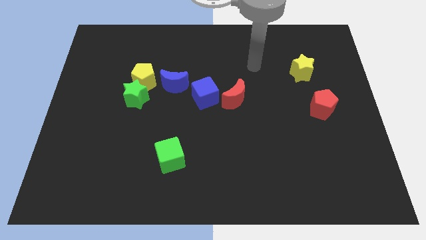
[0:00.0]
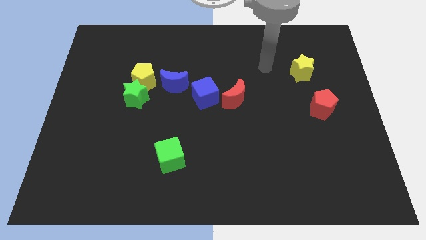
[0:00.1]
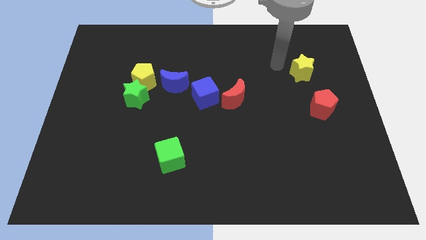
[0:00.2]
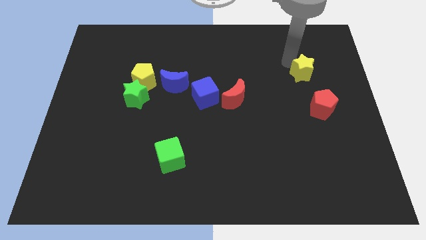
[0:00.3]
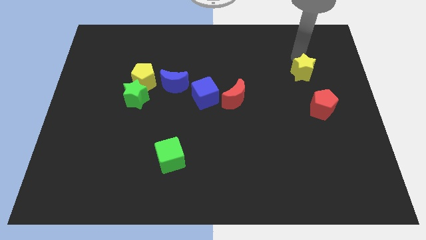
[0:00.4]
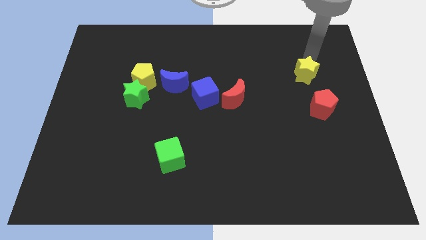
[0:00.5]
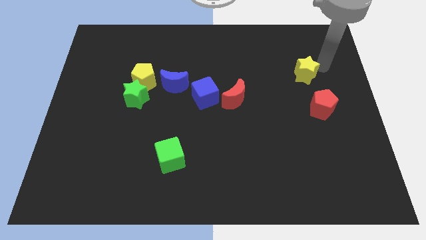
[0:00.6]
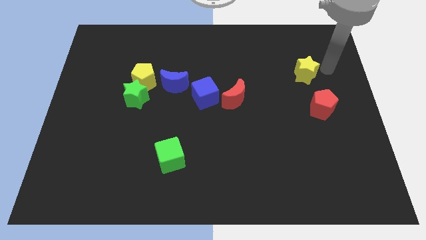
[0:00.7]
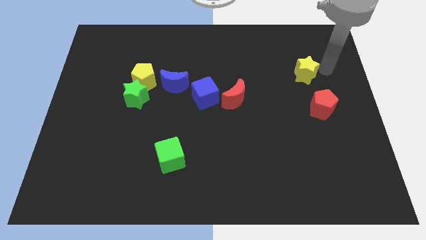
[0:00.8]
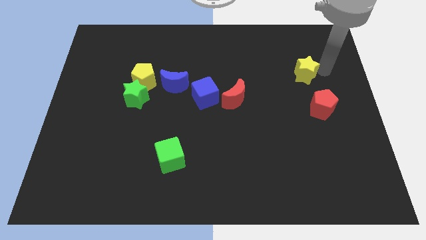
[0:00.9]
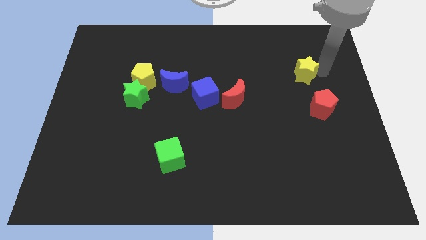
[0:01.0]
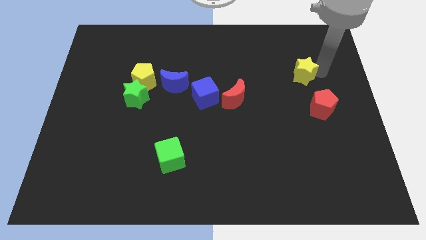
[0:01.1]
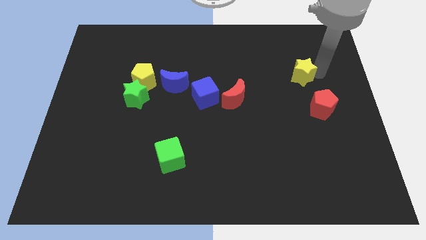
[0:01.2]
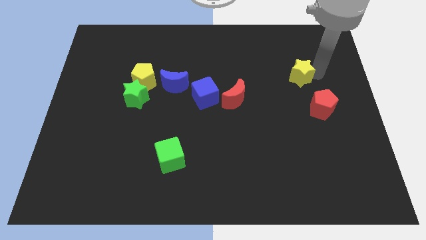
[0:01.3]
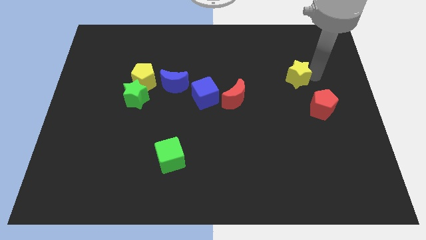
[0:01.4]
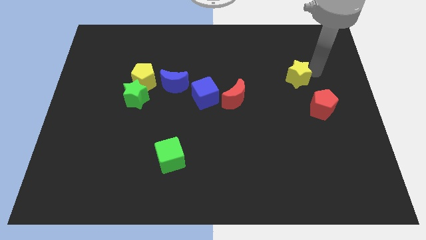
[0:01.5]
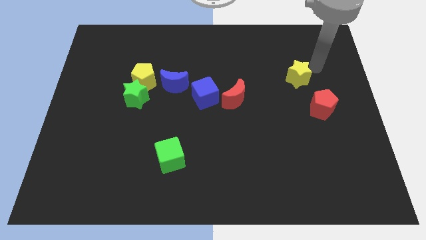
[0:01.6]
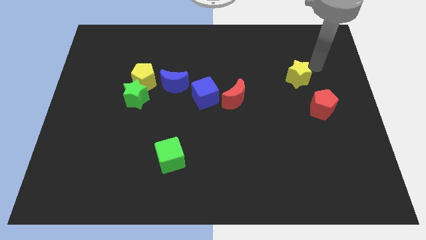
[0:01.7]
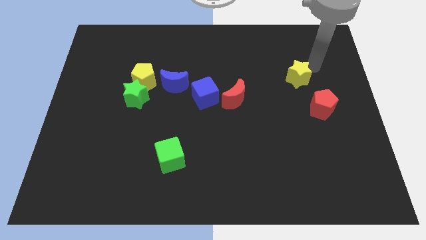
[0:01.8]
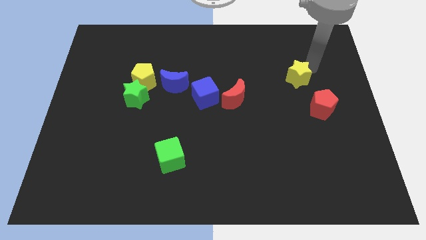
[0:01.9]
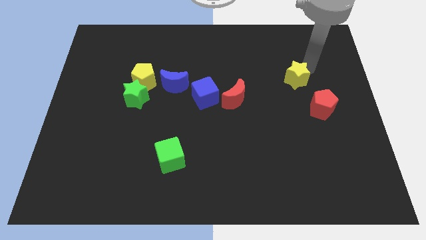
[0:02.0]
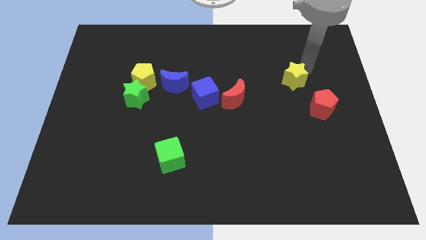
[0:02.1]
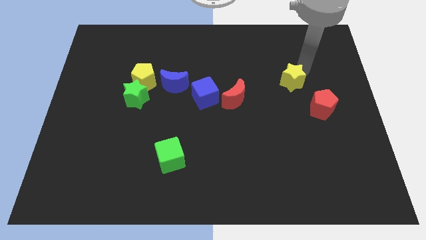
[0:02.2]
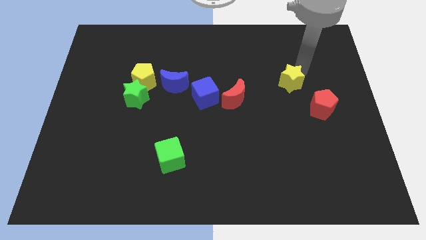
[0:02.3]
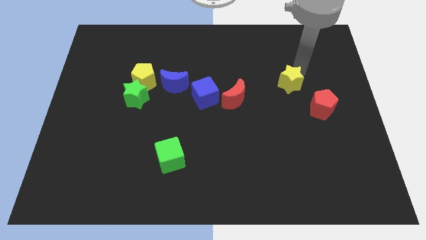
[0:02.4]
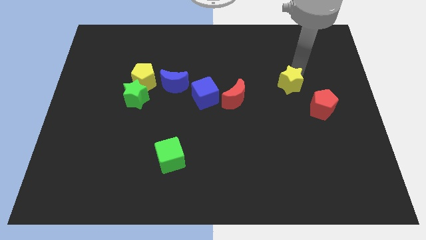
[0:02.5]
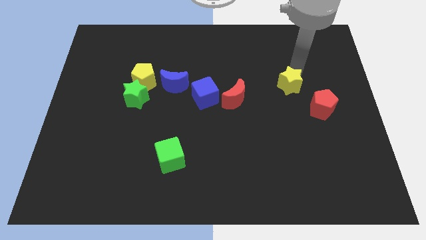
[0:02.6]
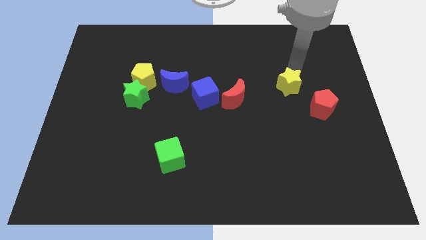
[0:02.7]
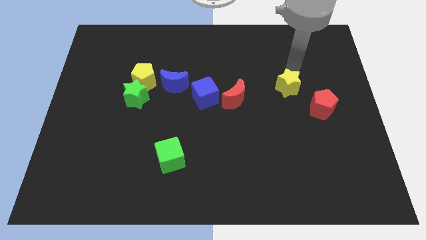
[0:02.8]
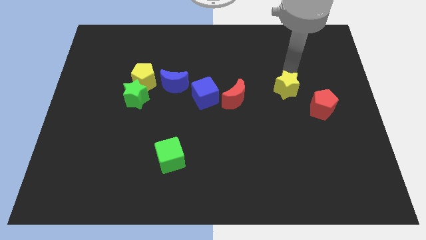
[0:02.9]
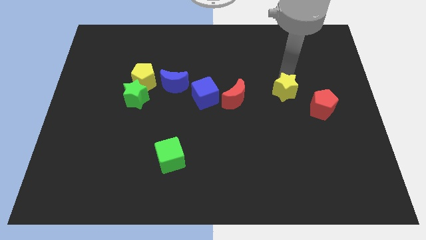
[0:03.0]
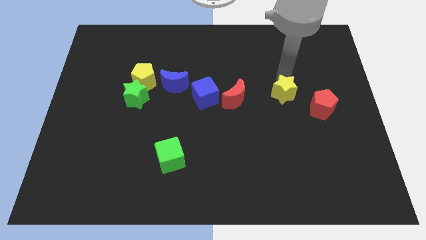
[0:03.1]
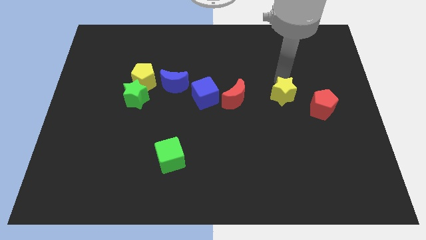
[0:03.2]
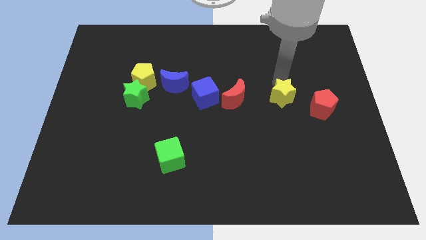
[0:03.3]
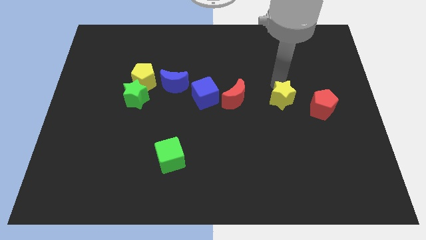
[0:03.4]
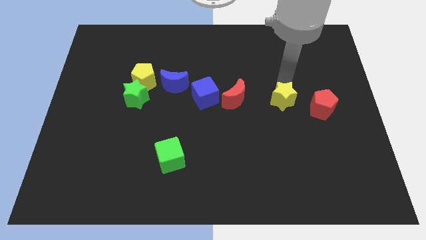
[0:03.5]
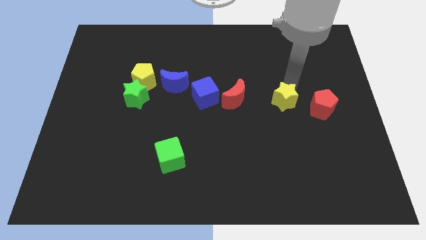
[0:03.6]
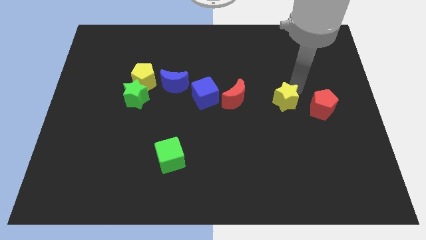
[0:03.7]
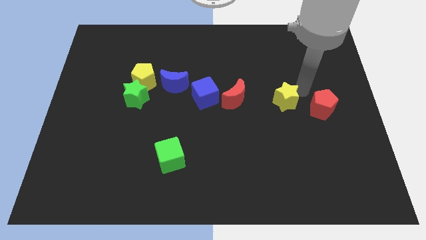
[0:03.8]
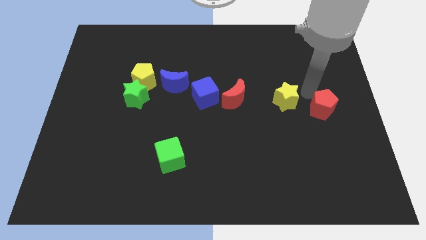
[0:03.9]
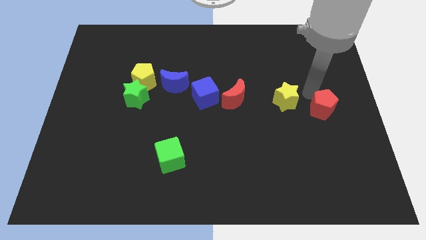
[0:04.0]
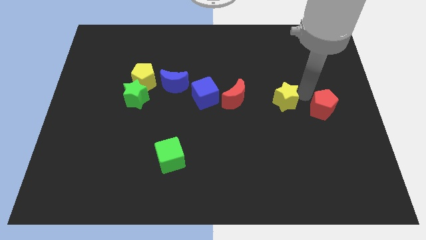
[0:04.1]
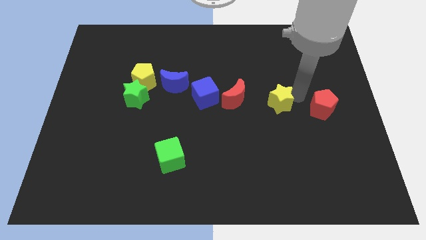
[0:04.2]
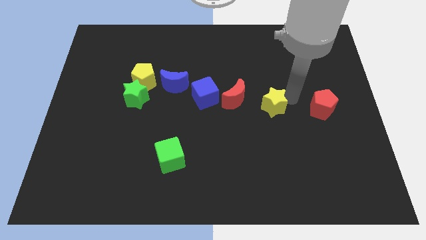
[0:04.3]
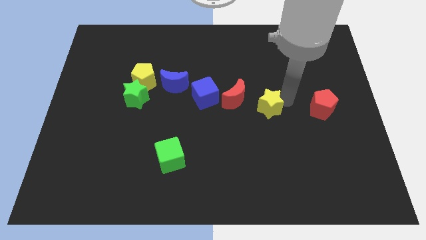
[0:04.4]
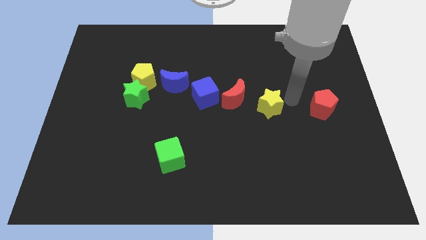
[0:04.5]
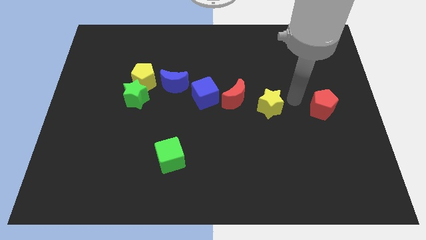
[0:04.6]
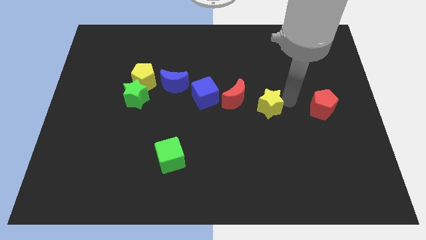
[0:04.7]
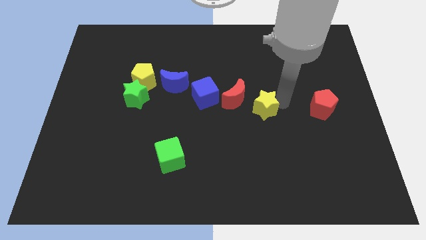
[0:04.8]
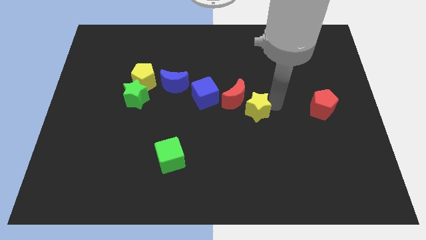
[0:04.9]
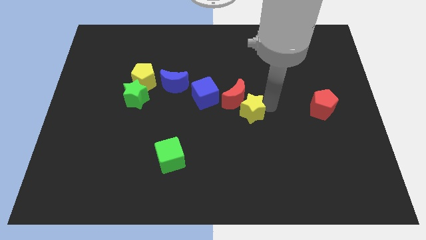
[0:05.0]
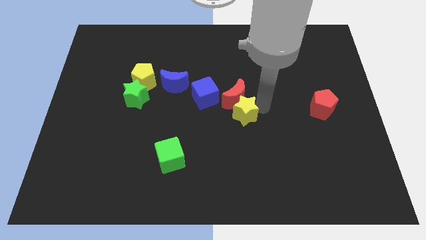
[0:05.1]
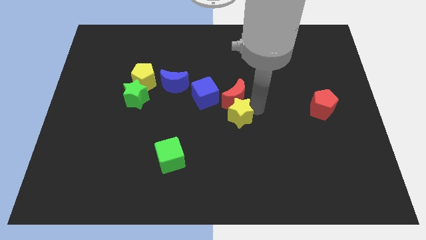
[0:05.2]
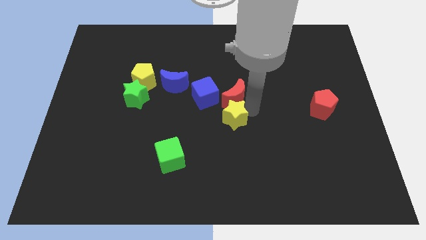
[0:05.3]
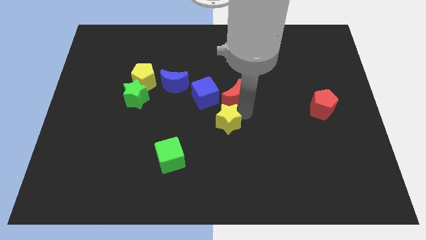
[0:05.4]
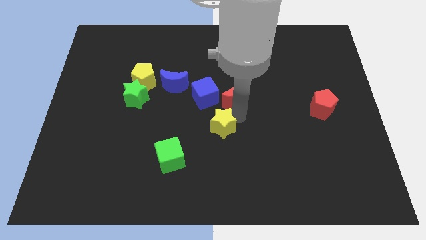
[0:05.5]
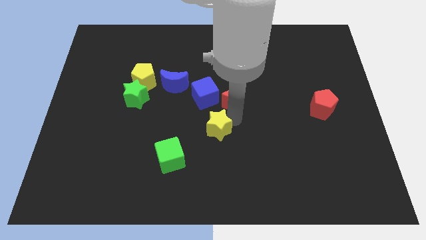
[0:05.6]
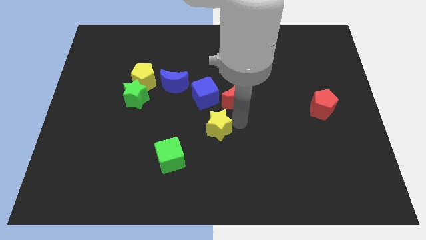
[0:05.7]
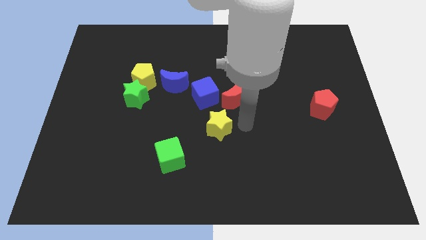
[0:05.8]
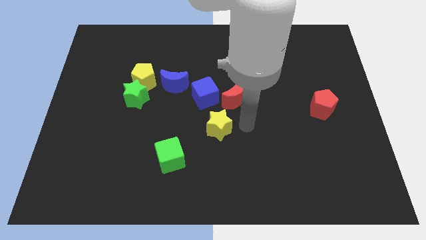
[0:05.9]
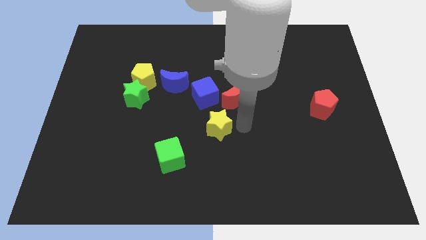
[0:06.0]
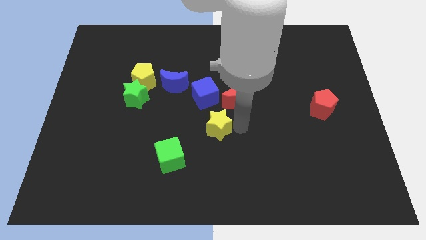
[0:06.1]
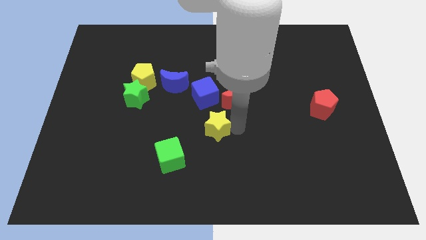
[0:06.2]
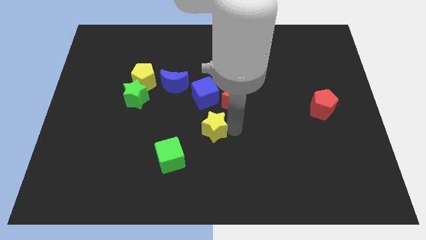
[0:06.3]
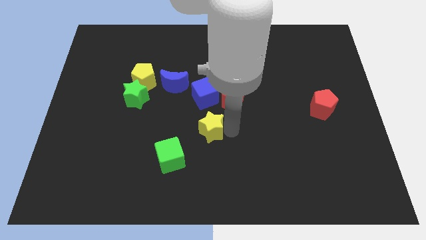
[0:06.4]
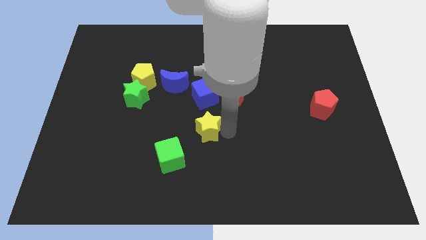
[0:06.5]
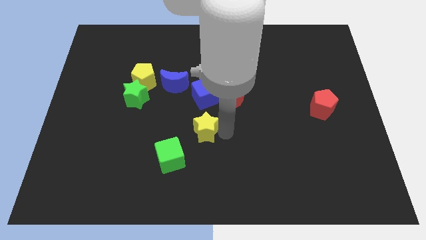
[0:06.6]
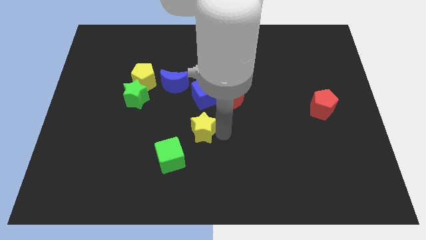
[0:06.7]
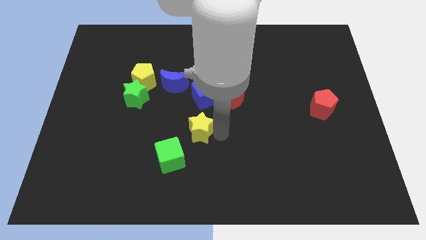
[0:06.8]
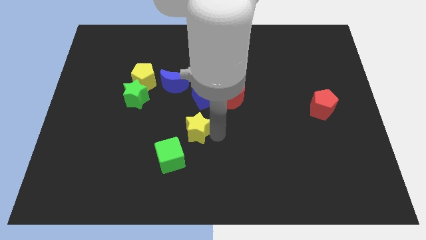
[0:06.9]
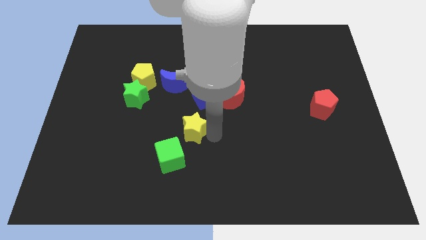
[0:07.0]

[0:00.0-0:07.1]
move the yellow star to the top side of the green cube
